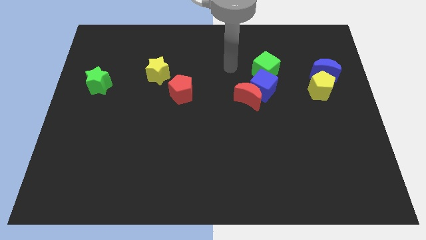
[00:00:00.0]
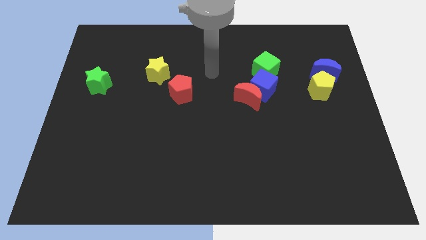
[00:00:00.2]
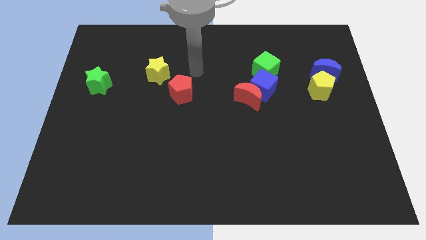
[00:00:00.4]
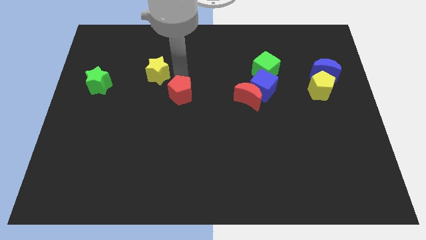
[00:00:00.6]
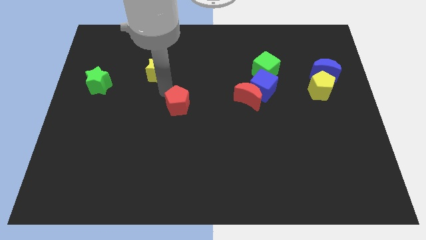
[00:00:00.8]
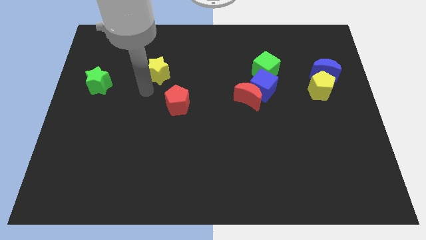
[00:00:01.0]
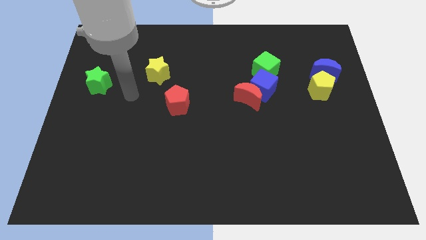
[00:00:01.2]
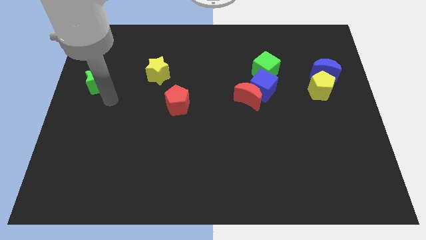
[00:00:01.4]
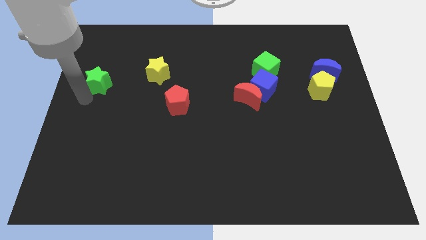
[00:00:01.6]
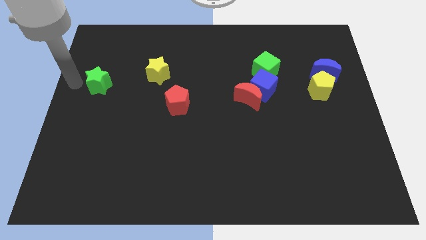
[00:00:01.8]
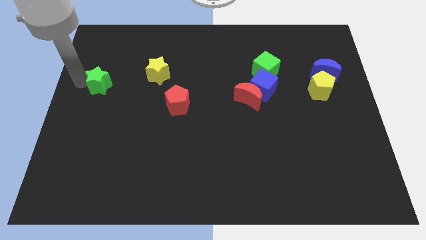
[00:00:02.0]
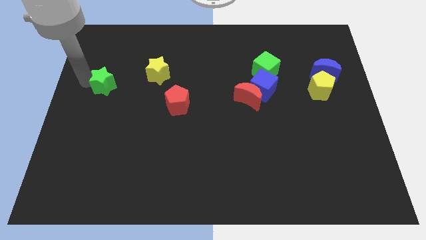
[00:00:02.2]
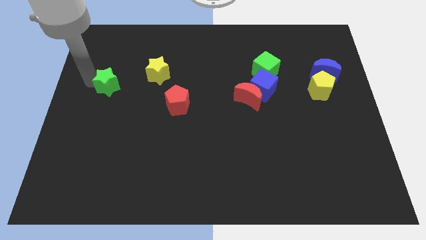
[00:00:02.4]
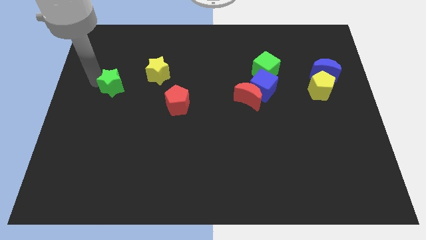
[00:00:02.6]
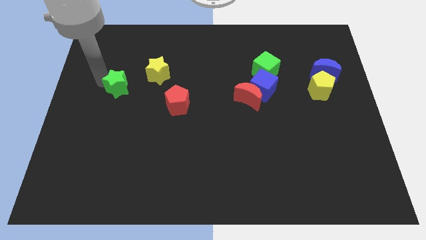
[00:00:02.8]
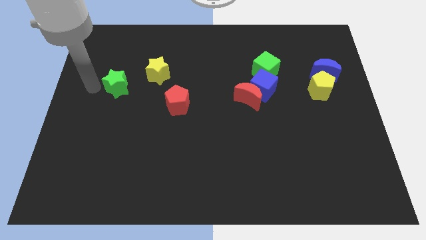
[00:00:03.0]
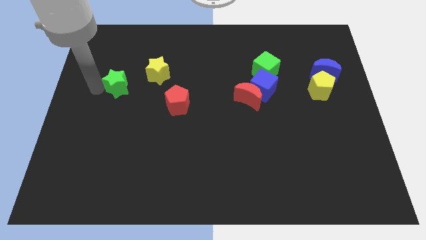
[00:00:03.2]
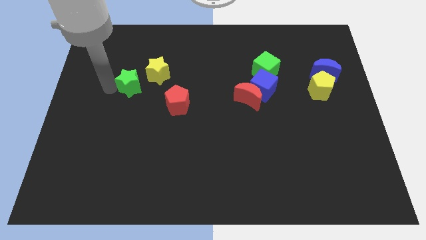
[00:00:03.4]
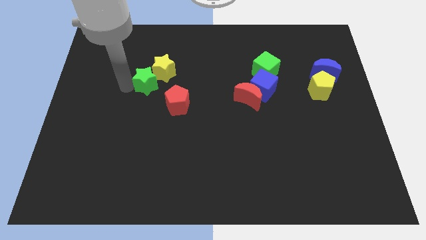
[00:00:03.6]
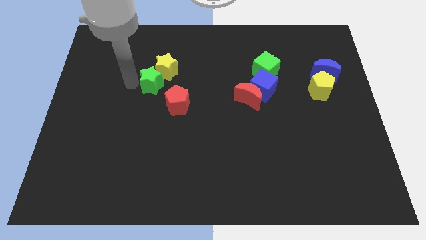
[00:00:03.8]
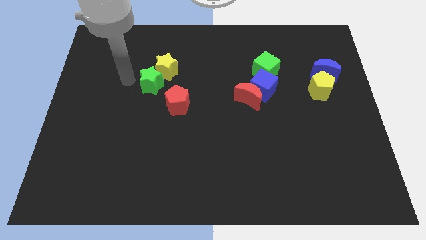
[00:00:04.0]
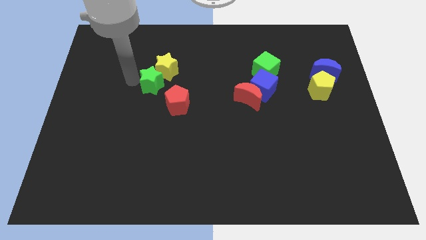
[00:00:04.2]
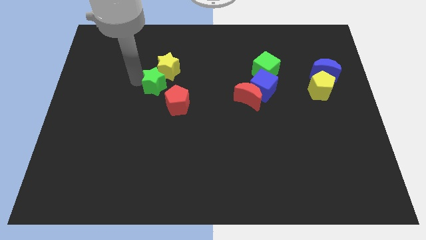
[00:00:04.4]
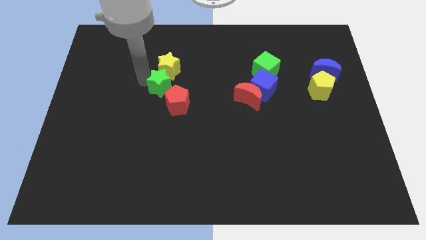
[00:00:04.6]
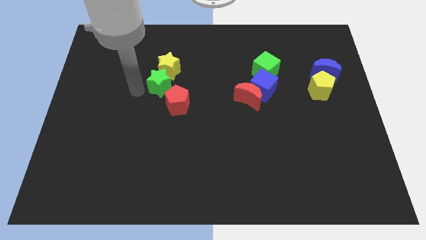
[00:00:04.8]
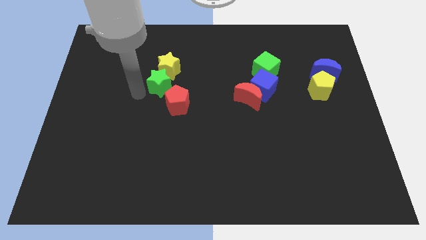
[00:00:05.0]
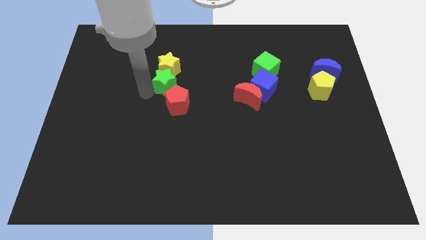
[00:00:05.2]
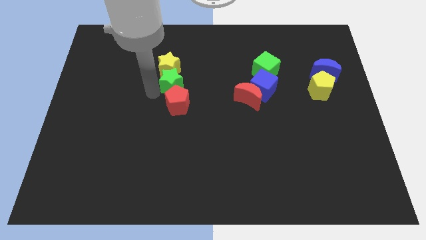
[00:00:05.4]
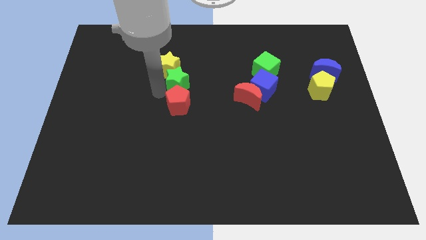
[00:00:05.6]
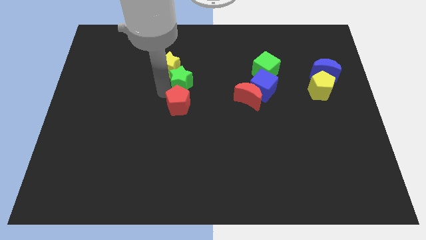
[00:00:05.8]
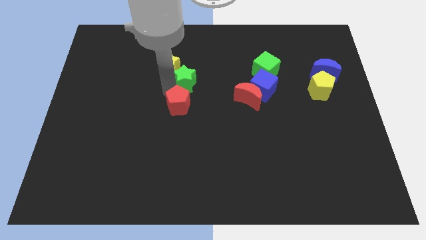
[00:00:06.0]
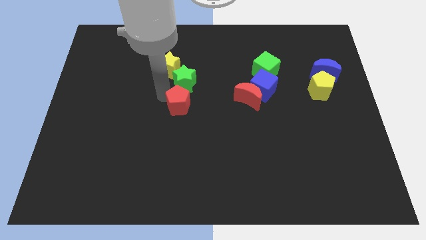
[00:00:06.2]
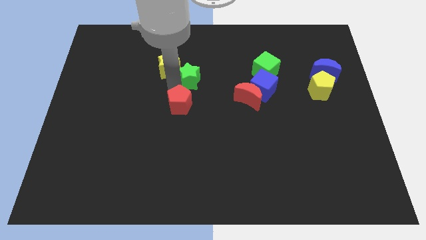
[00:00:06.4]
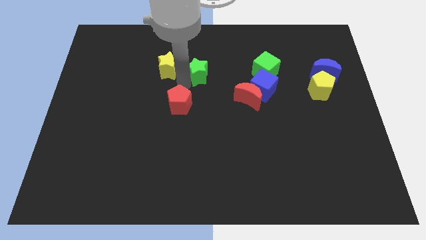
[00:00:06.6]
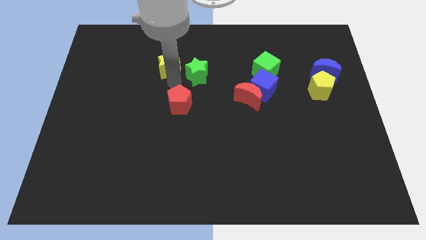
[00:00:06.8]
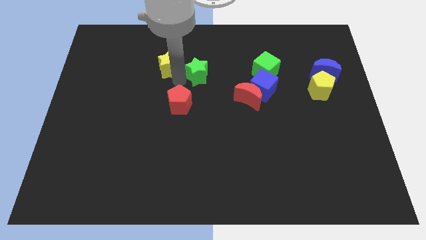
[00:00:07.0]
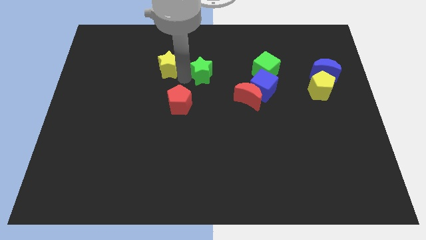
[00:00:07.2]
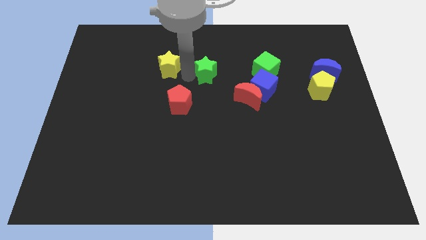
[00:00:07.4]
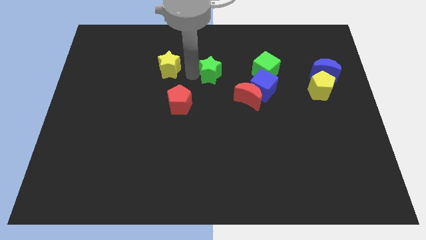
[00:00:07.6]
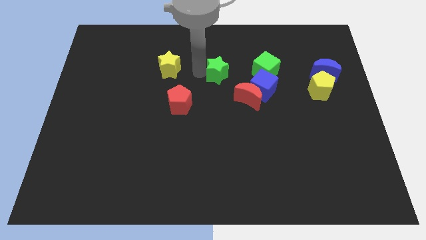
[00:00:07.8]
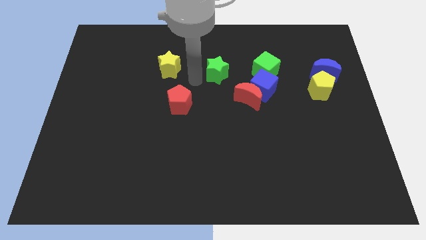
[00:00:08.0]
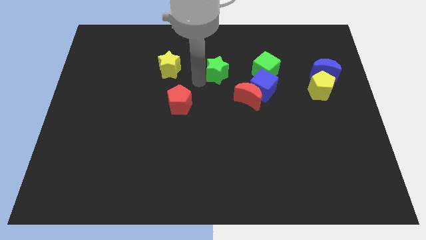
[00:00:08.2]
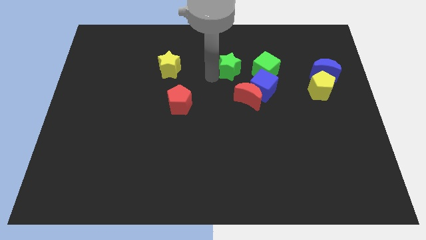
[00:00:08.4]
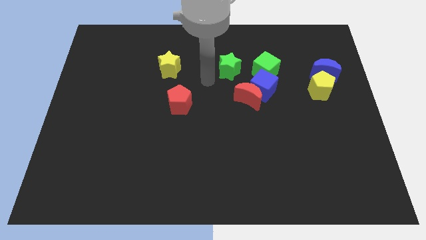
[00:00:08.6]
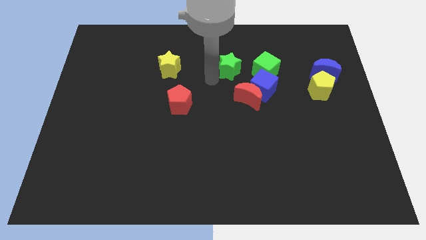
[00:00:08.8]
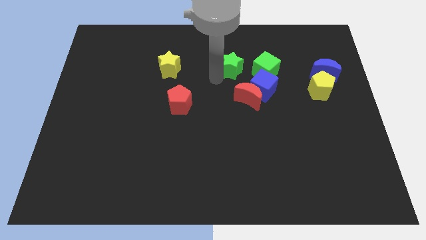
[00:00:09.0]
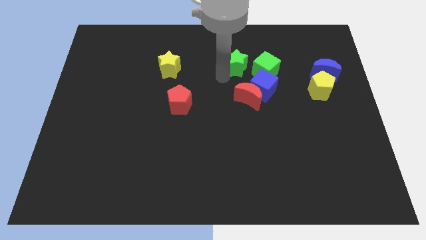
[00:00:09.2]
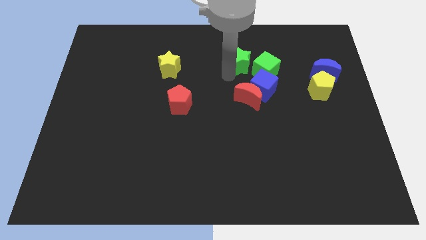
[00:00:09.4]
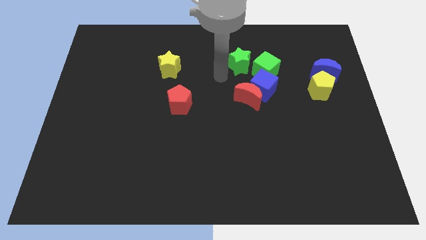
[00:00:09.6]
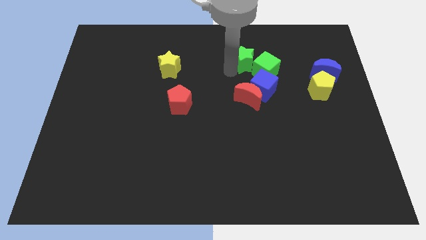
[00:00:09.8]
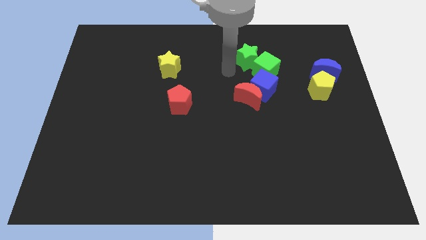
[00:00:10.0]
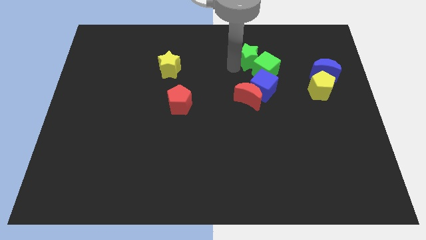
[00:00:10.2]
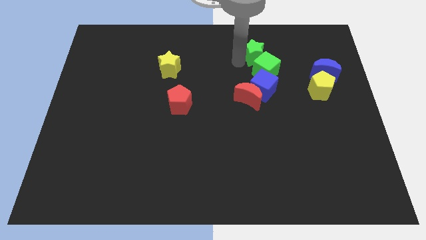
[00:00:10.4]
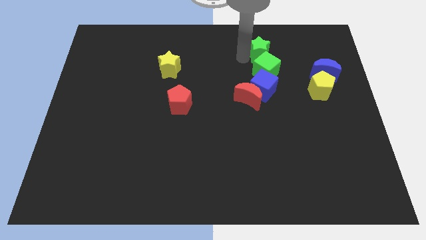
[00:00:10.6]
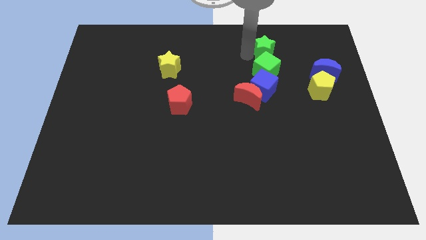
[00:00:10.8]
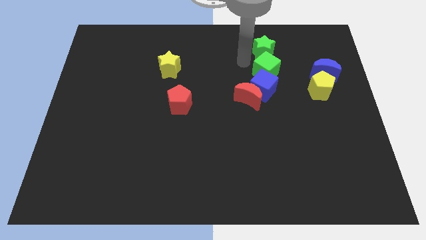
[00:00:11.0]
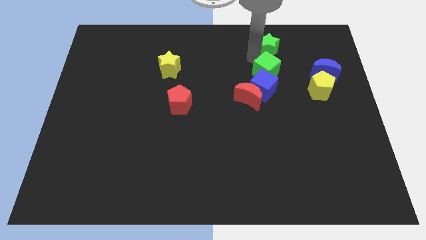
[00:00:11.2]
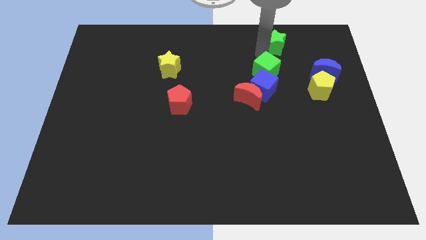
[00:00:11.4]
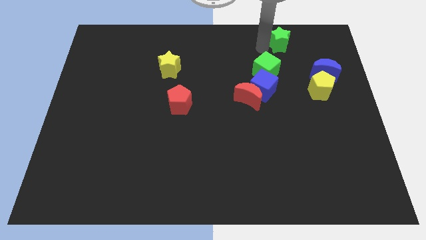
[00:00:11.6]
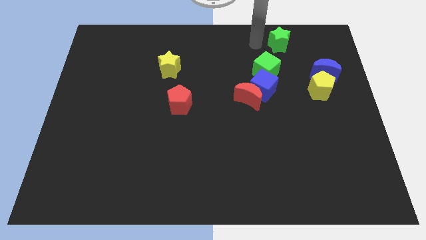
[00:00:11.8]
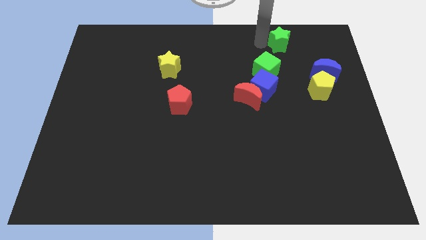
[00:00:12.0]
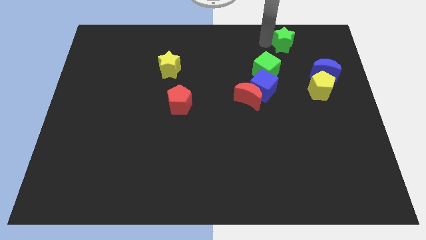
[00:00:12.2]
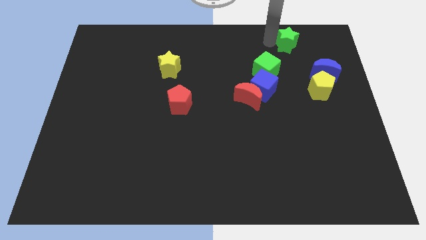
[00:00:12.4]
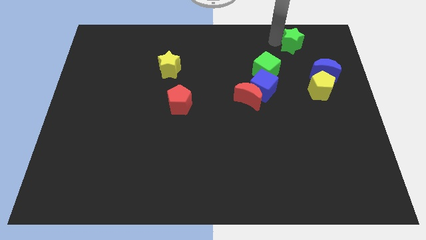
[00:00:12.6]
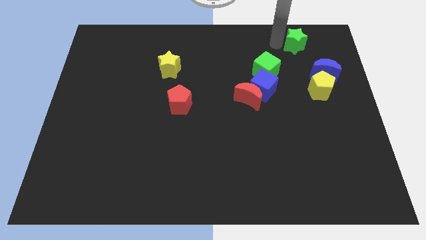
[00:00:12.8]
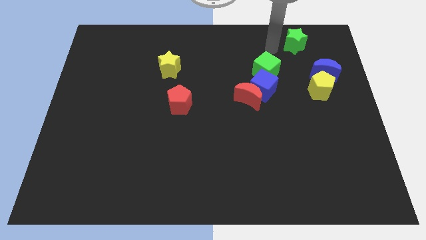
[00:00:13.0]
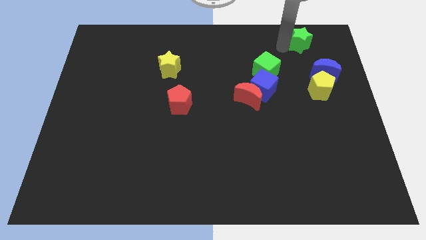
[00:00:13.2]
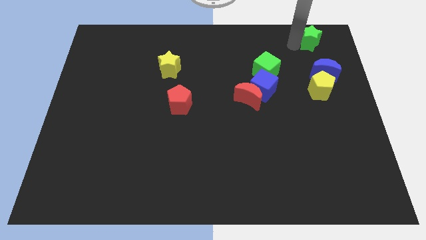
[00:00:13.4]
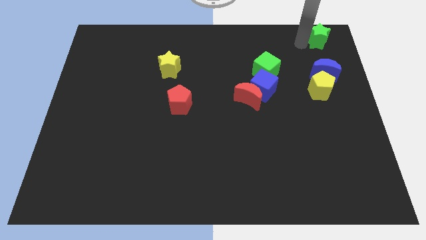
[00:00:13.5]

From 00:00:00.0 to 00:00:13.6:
slide the green star to the top right corner

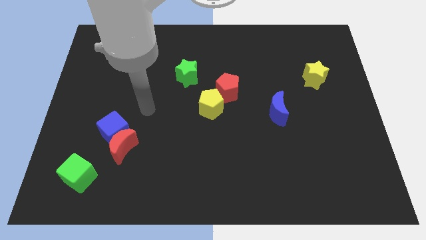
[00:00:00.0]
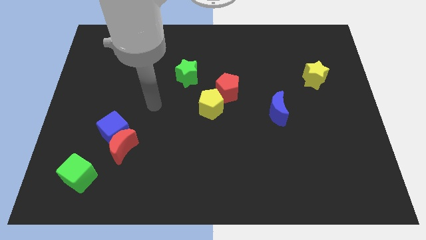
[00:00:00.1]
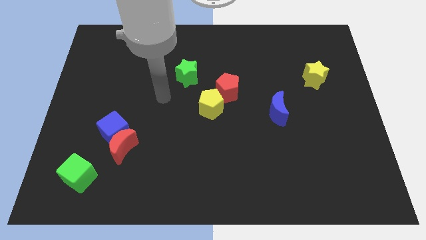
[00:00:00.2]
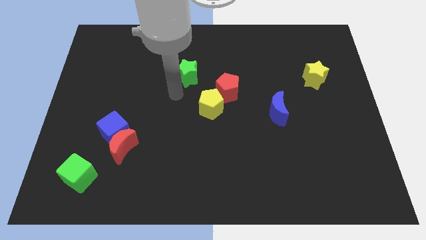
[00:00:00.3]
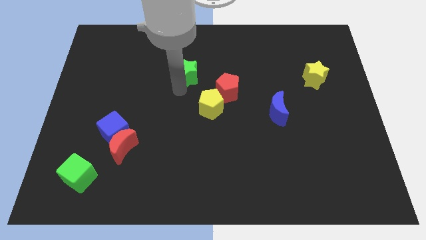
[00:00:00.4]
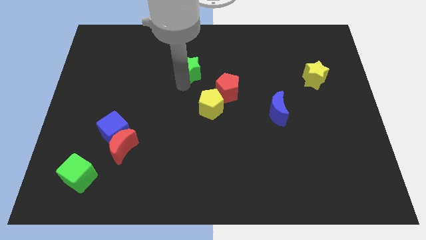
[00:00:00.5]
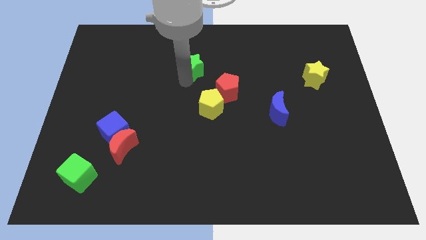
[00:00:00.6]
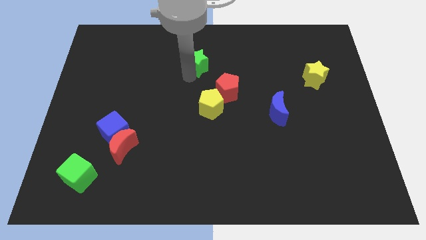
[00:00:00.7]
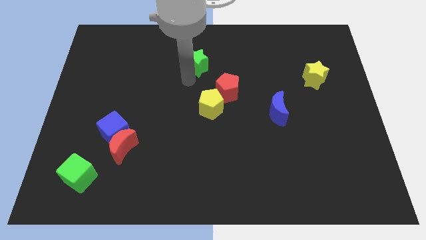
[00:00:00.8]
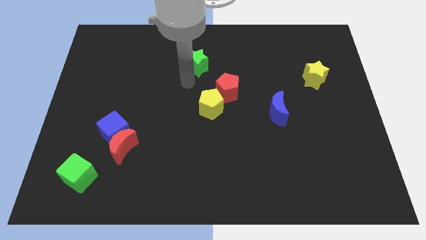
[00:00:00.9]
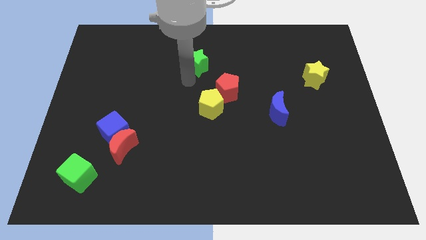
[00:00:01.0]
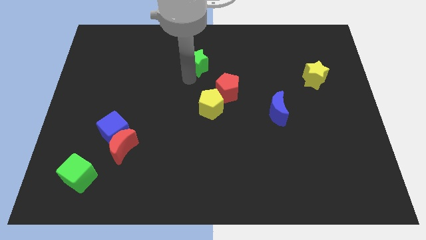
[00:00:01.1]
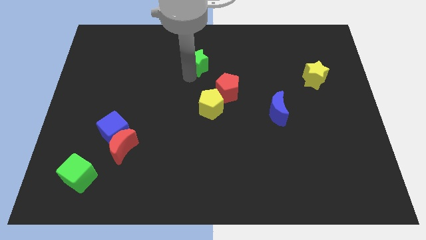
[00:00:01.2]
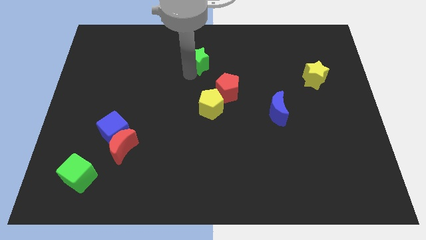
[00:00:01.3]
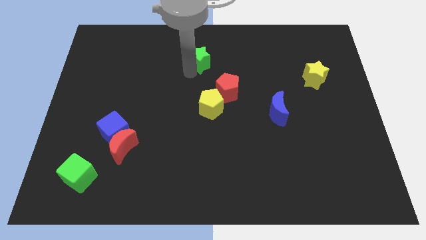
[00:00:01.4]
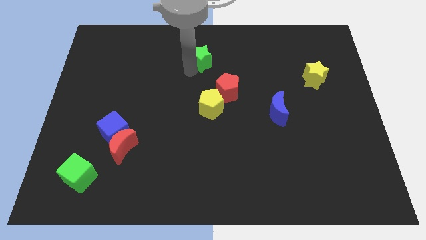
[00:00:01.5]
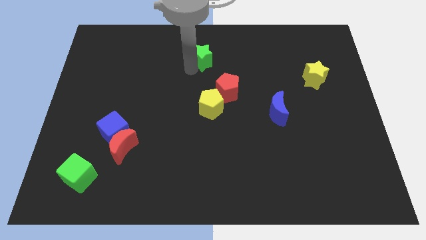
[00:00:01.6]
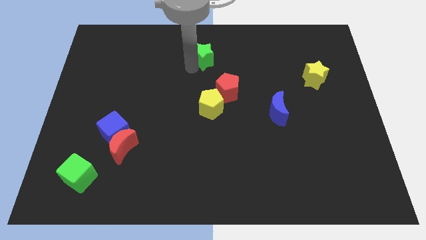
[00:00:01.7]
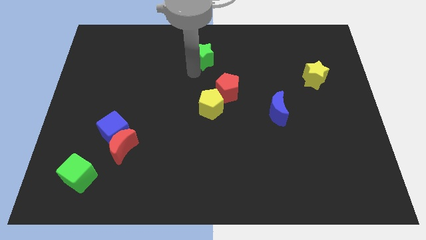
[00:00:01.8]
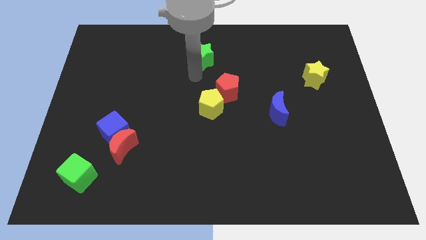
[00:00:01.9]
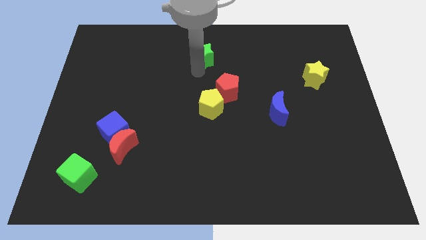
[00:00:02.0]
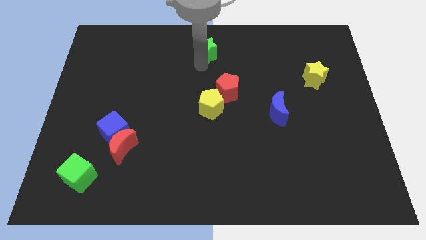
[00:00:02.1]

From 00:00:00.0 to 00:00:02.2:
push the green star to the top
